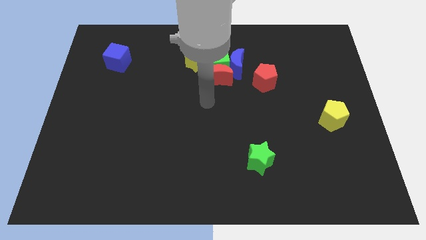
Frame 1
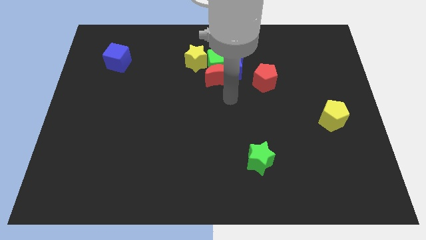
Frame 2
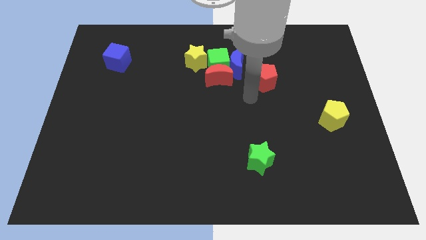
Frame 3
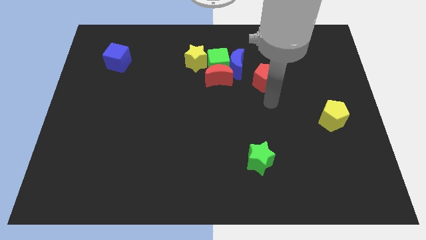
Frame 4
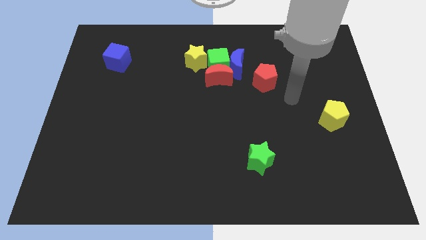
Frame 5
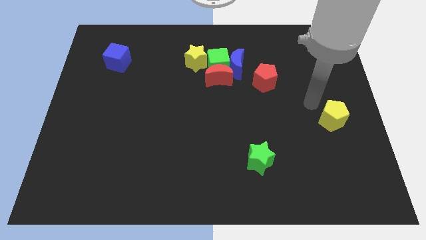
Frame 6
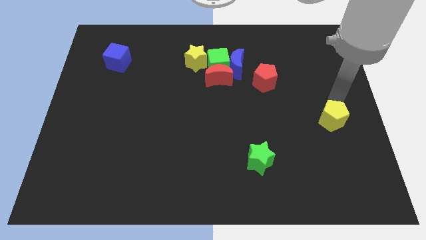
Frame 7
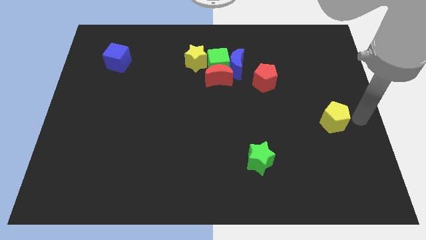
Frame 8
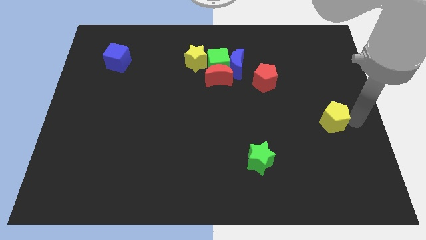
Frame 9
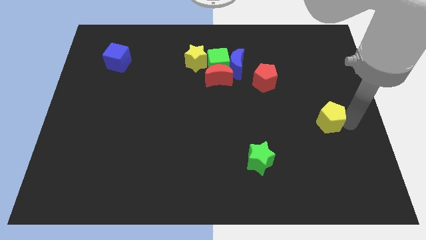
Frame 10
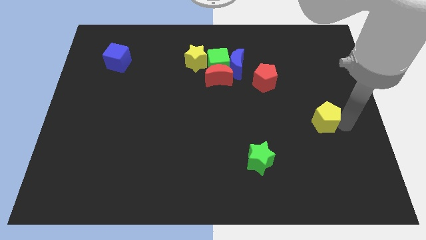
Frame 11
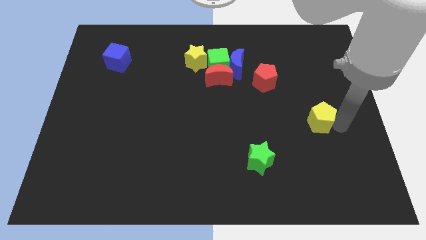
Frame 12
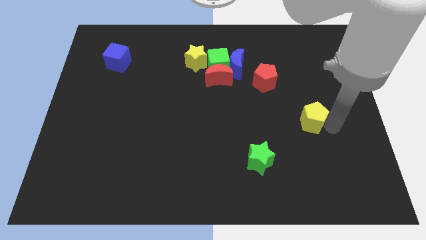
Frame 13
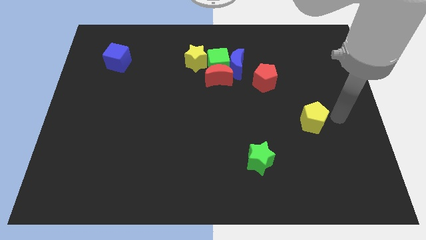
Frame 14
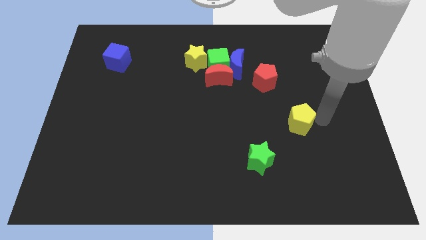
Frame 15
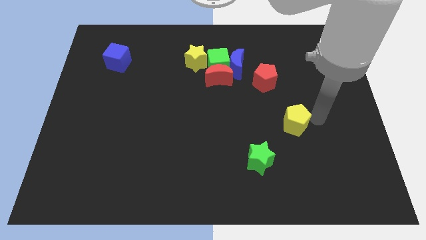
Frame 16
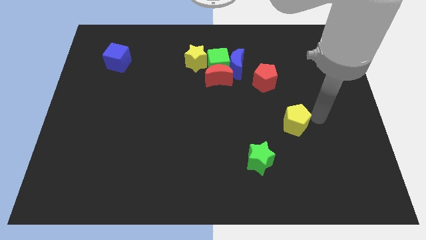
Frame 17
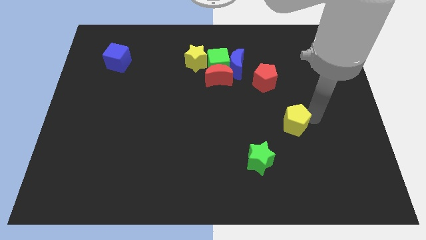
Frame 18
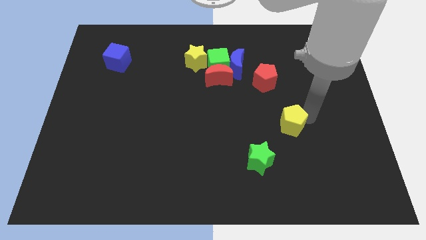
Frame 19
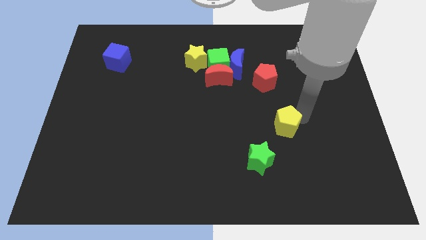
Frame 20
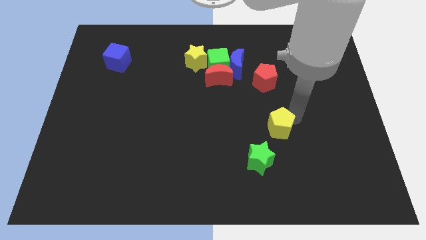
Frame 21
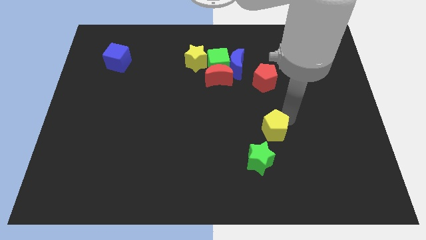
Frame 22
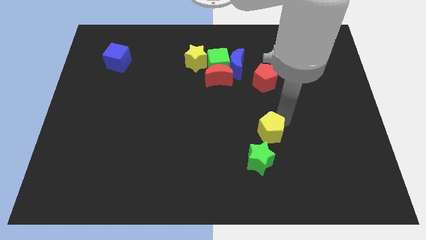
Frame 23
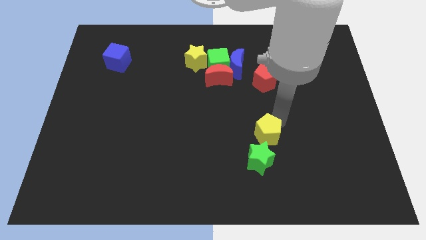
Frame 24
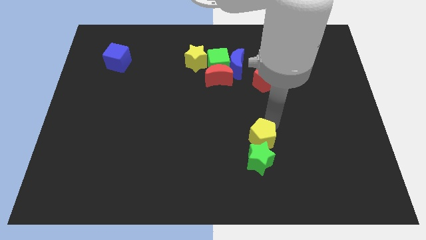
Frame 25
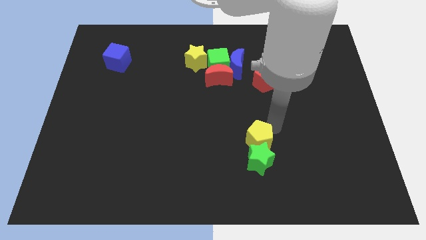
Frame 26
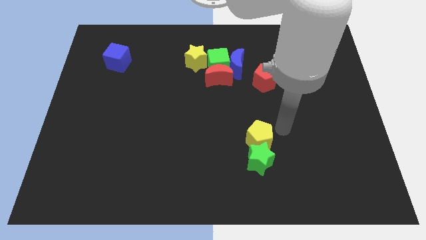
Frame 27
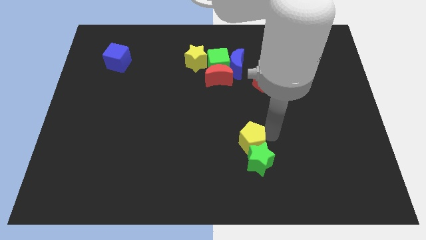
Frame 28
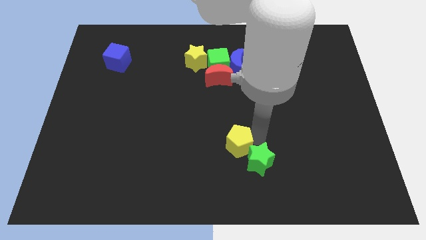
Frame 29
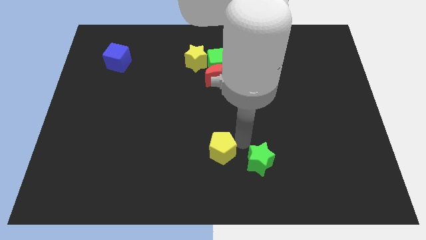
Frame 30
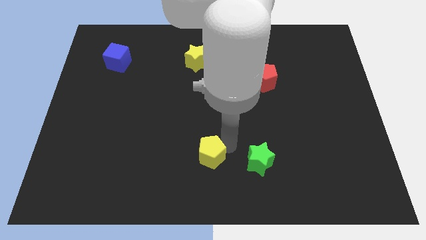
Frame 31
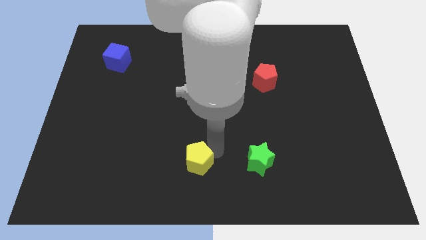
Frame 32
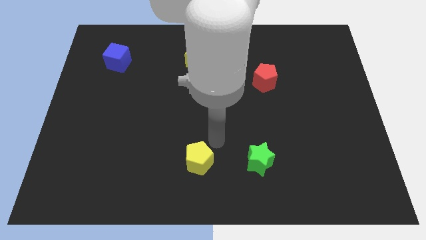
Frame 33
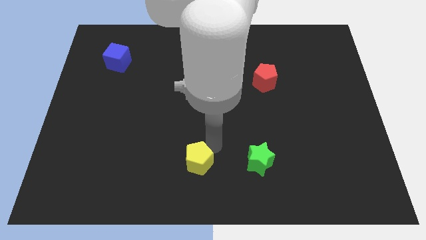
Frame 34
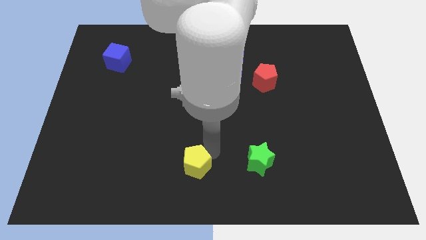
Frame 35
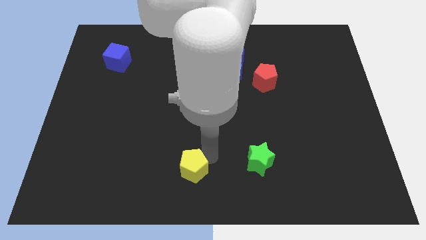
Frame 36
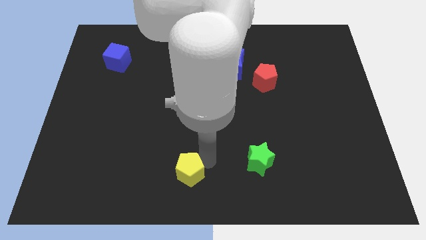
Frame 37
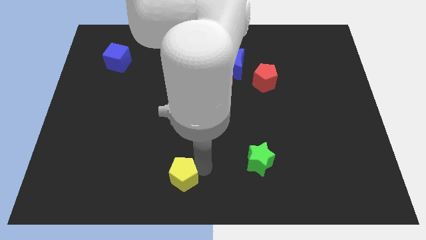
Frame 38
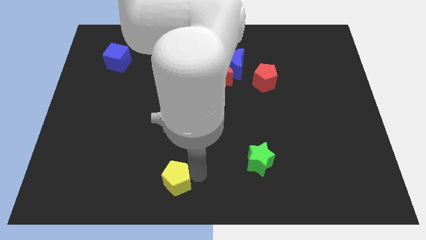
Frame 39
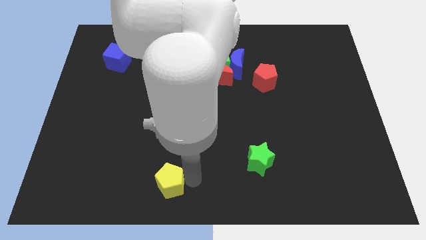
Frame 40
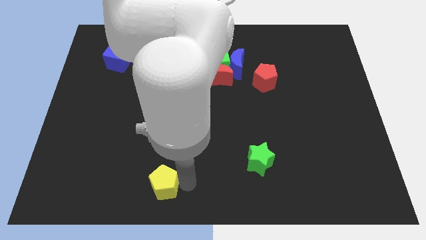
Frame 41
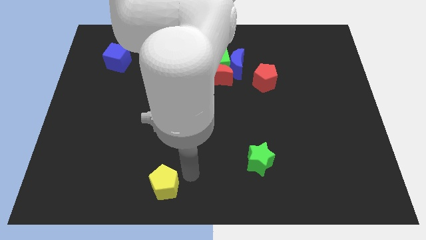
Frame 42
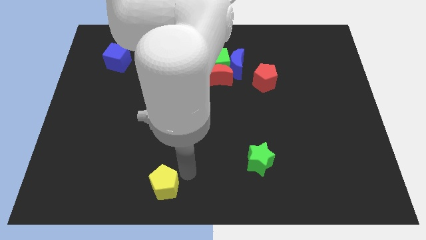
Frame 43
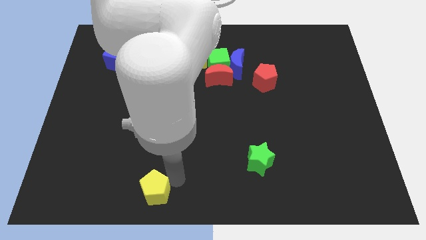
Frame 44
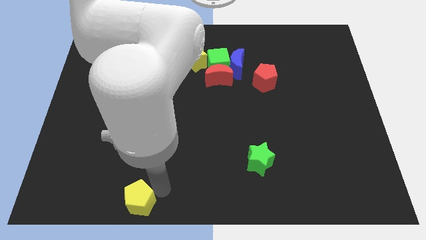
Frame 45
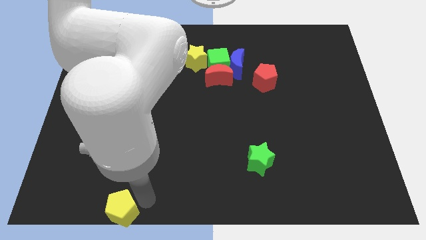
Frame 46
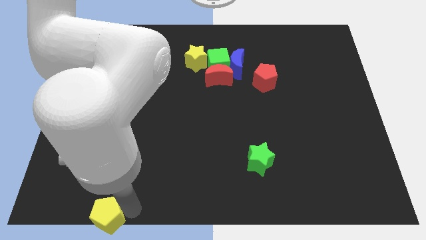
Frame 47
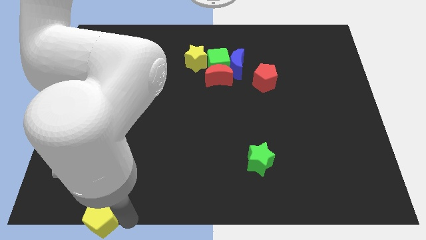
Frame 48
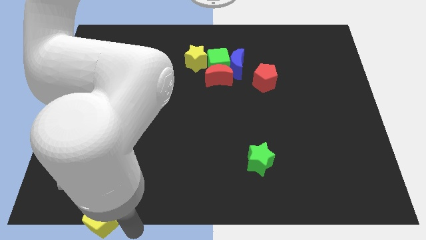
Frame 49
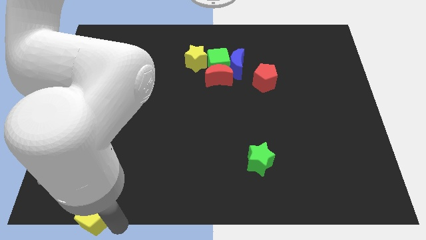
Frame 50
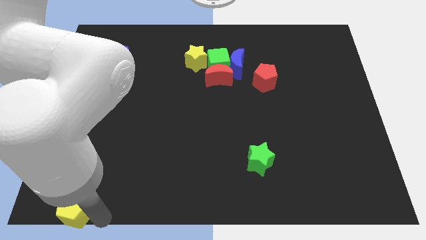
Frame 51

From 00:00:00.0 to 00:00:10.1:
slide the yellow pentagon to the bottom left of the board

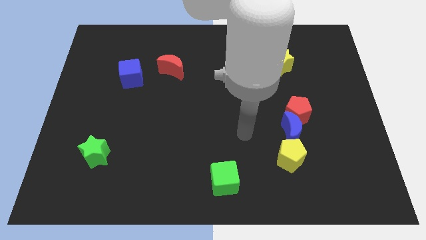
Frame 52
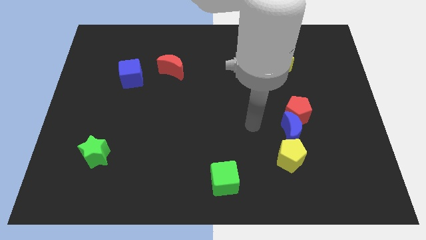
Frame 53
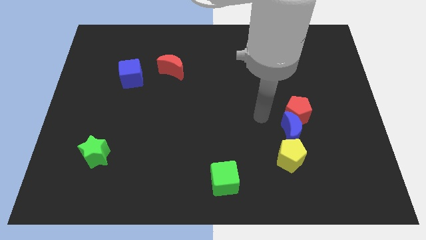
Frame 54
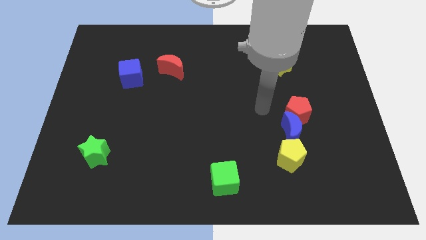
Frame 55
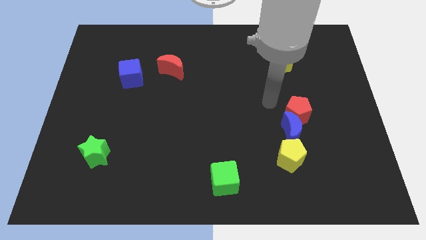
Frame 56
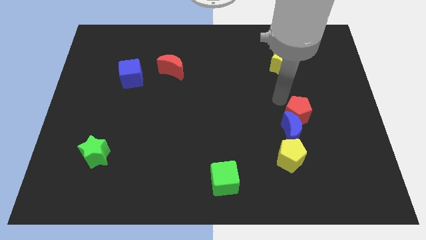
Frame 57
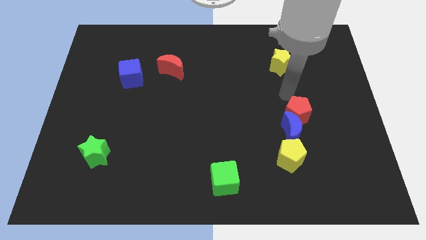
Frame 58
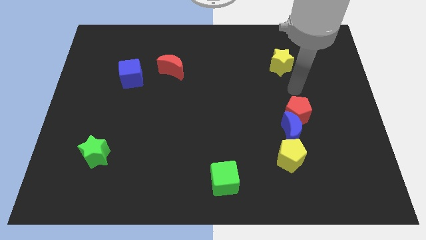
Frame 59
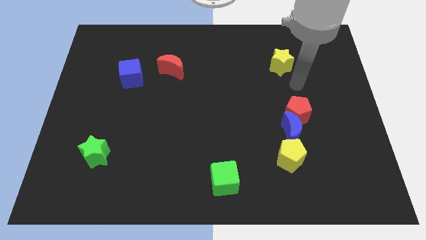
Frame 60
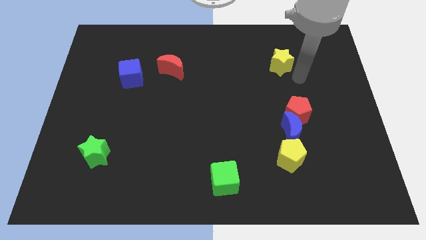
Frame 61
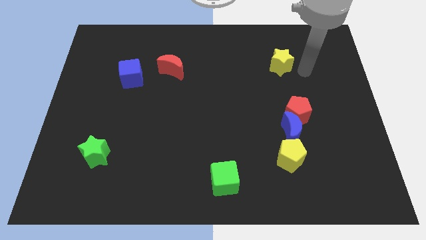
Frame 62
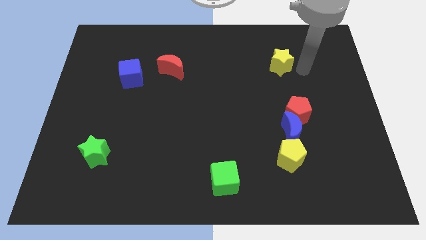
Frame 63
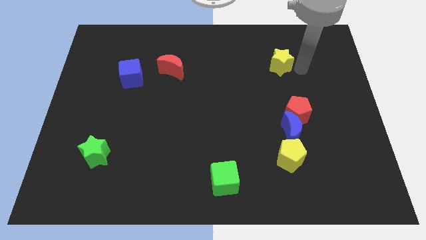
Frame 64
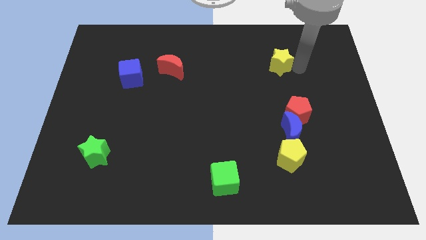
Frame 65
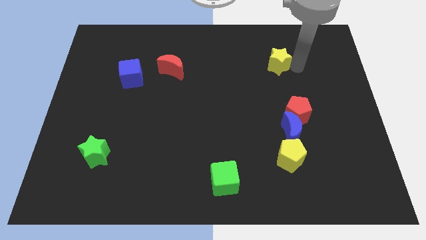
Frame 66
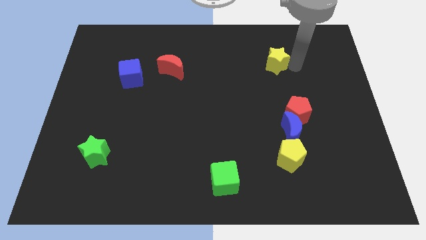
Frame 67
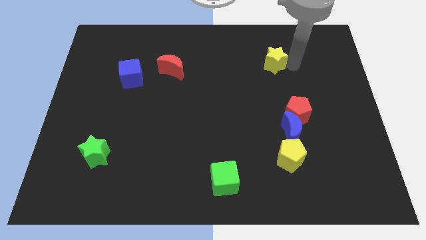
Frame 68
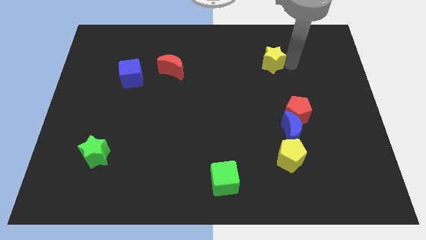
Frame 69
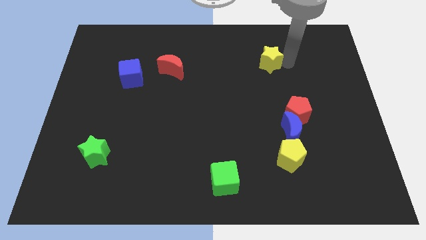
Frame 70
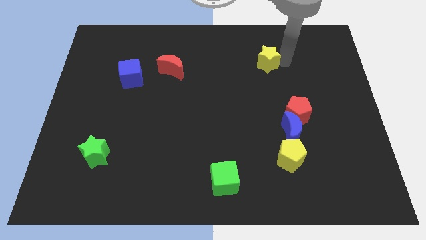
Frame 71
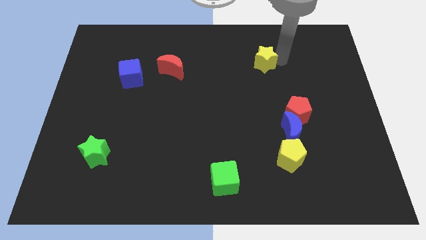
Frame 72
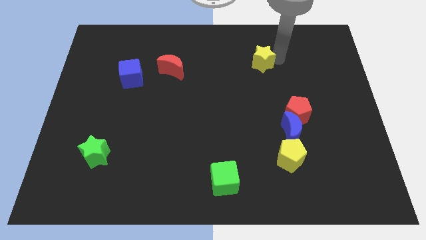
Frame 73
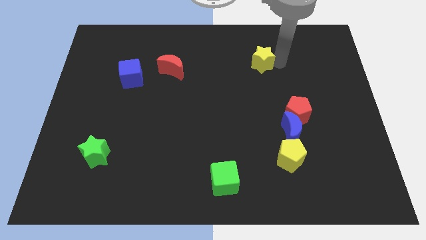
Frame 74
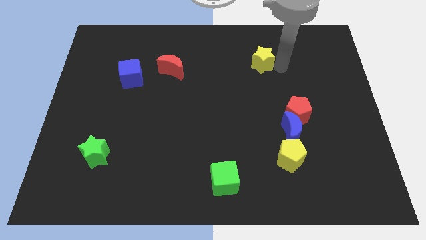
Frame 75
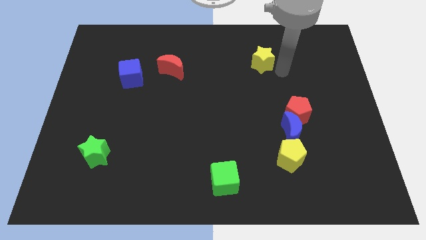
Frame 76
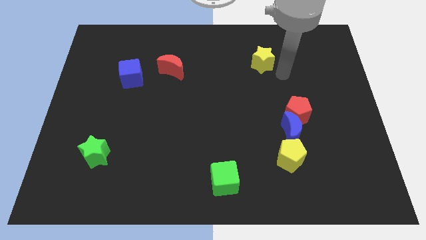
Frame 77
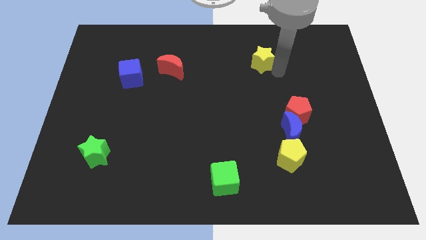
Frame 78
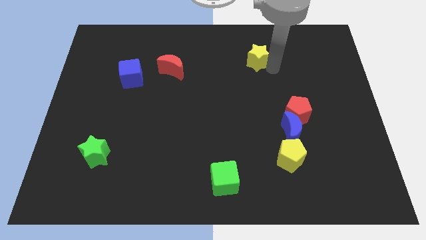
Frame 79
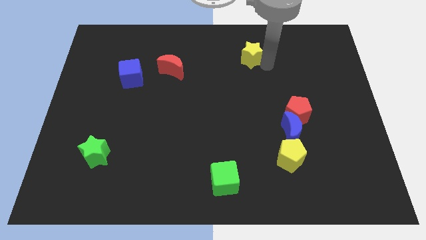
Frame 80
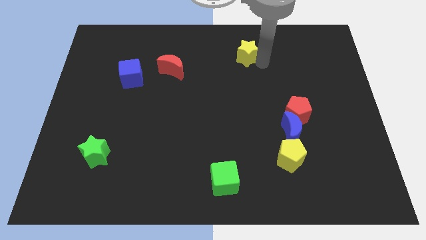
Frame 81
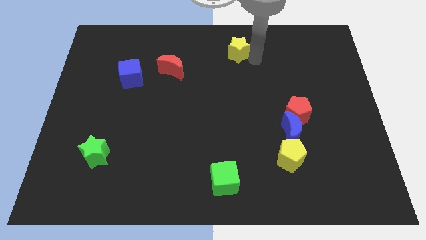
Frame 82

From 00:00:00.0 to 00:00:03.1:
push the yellow star to the top
